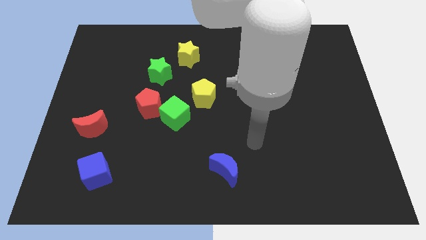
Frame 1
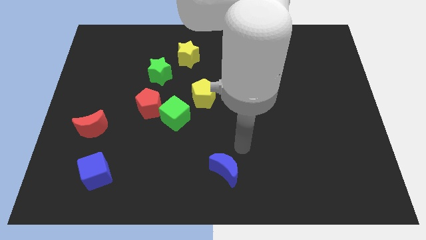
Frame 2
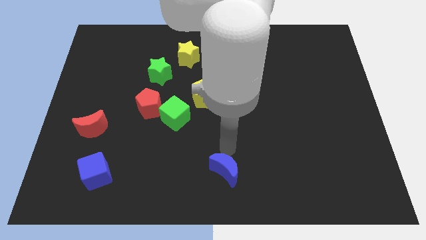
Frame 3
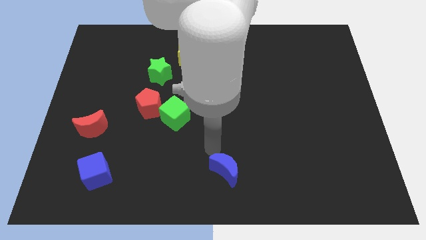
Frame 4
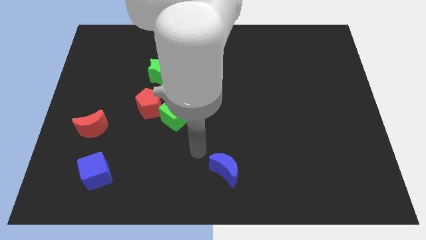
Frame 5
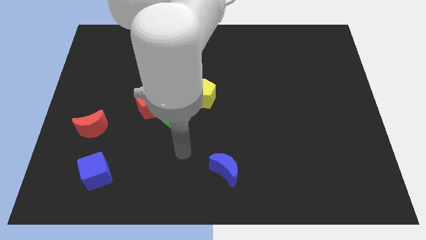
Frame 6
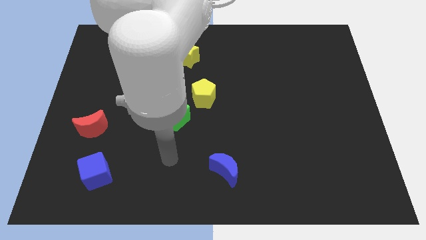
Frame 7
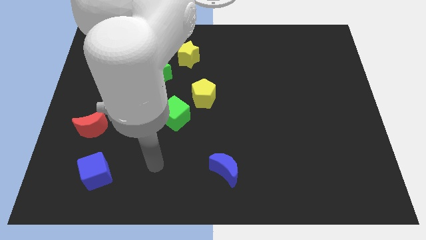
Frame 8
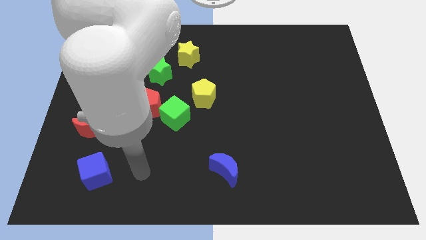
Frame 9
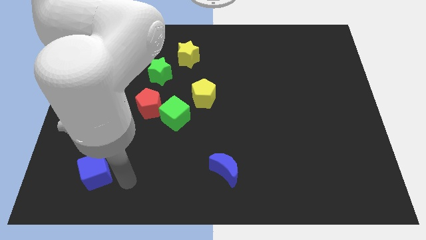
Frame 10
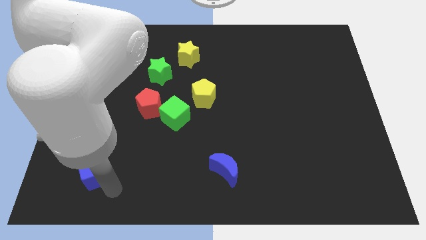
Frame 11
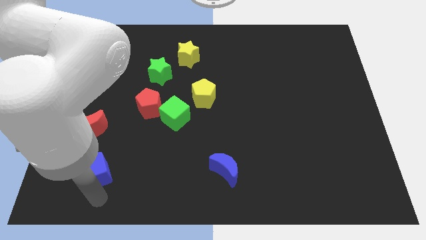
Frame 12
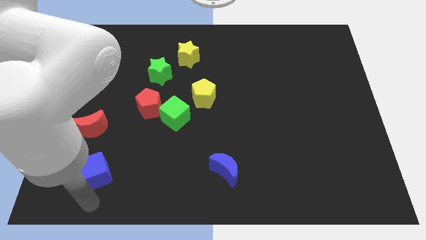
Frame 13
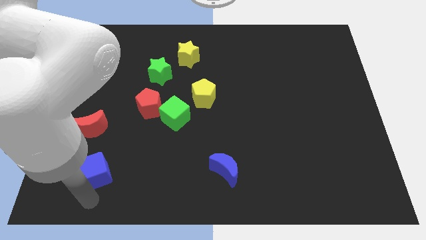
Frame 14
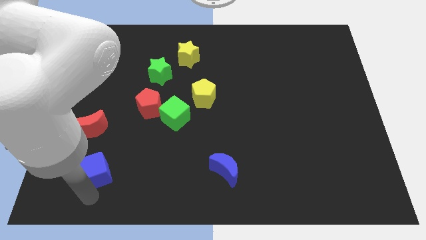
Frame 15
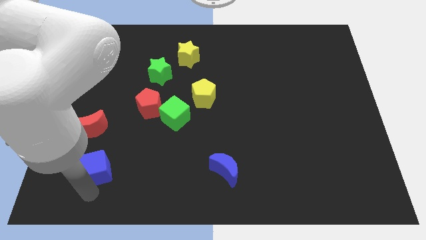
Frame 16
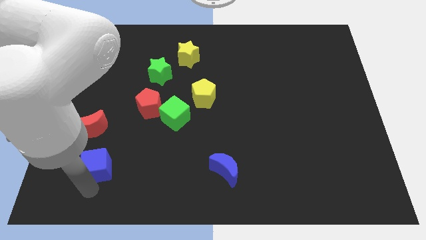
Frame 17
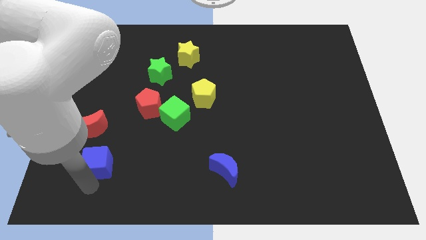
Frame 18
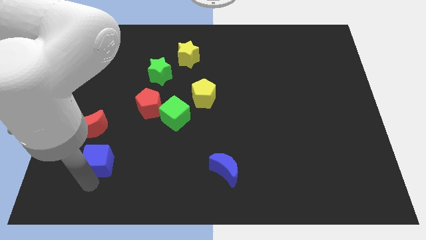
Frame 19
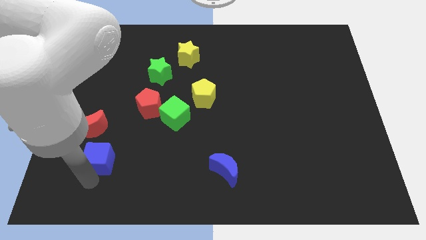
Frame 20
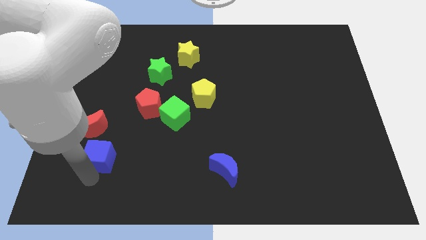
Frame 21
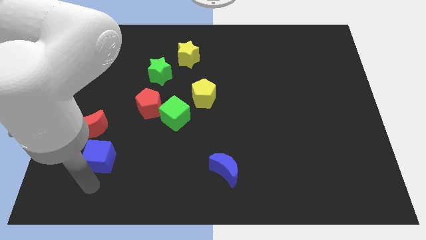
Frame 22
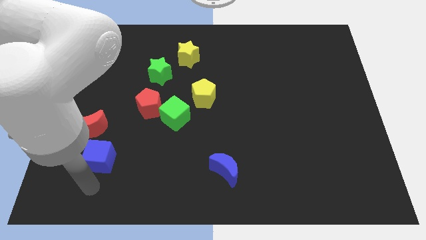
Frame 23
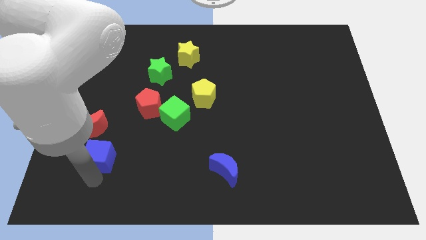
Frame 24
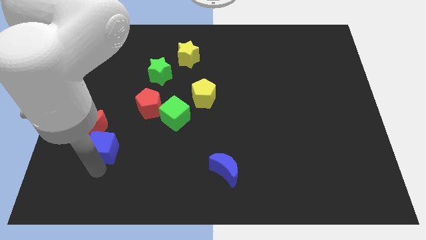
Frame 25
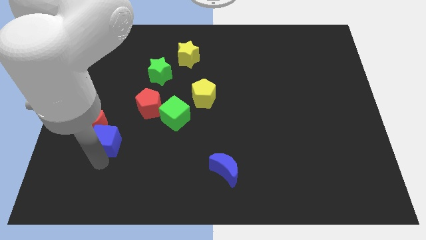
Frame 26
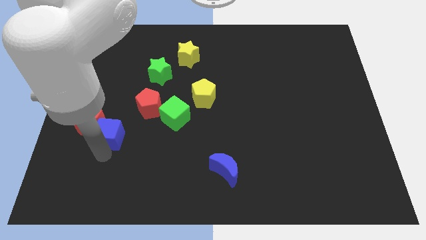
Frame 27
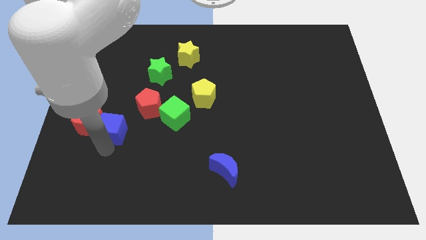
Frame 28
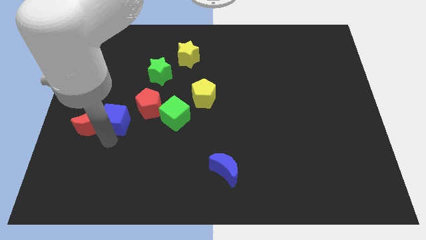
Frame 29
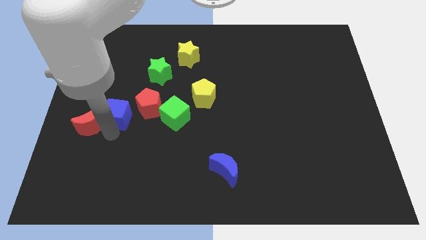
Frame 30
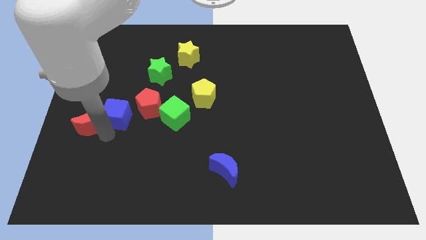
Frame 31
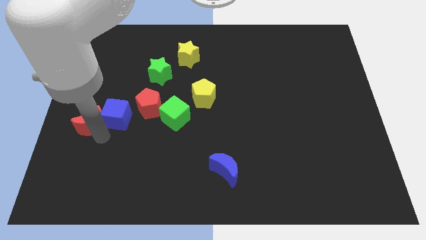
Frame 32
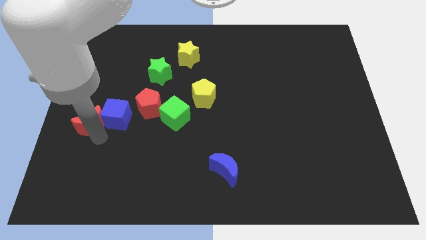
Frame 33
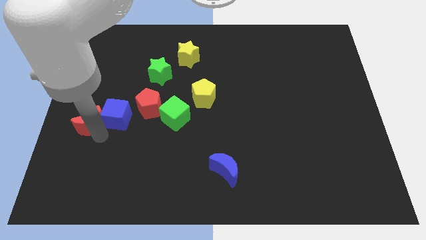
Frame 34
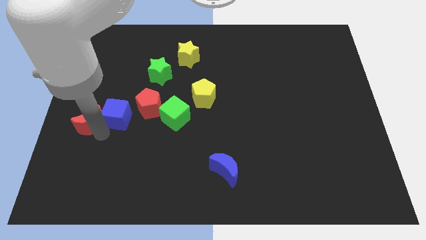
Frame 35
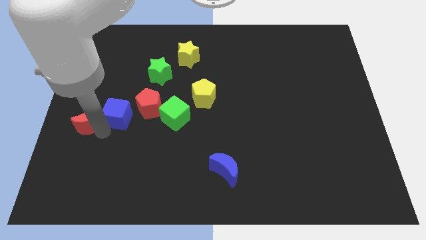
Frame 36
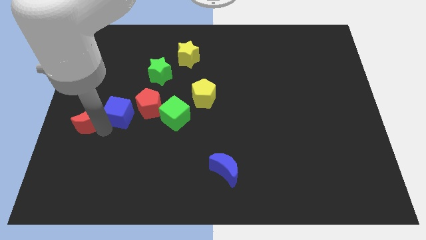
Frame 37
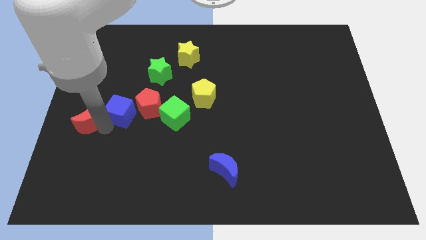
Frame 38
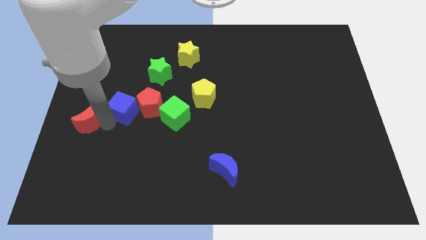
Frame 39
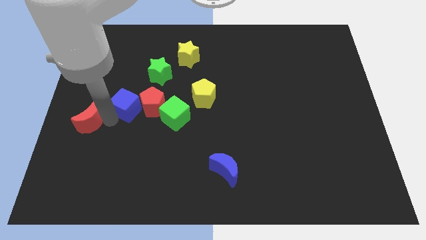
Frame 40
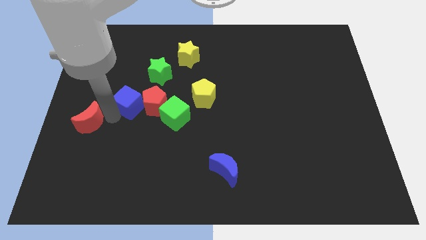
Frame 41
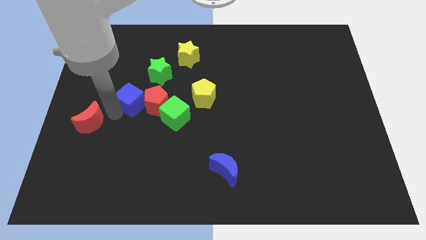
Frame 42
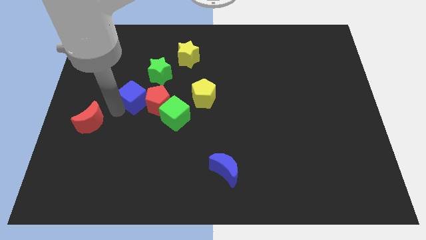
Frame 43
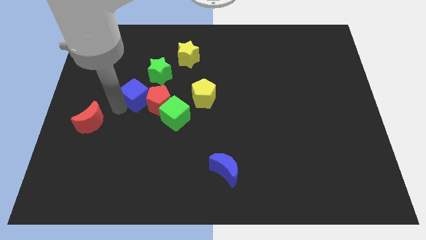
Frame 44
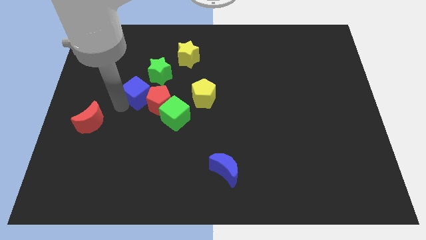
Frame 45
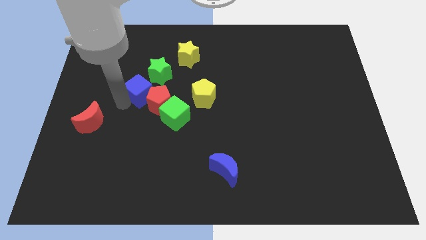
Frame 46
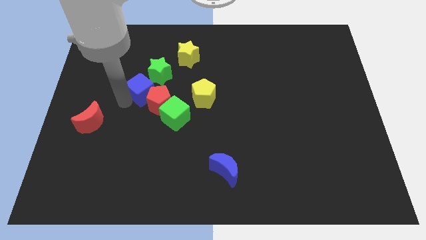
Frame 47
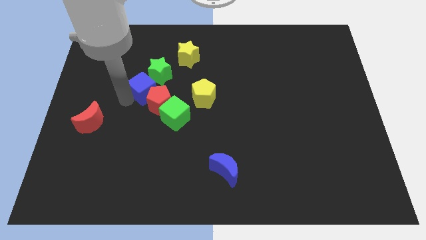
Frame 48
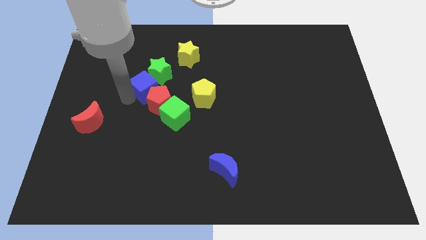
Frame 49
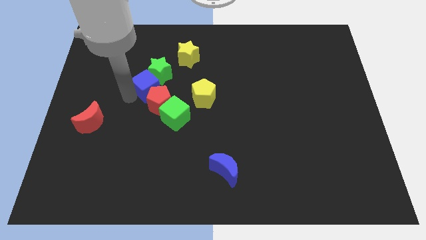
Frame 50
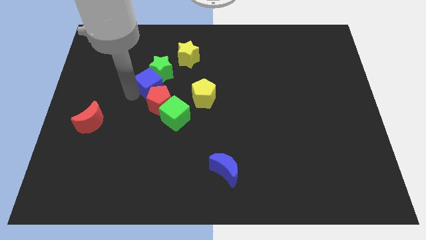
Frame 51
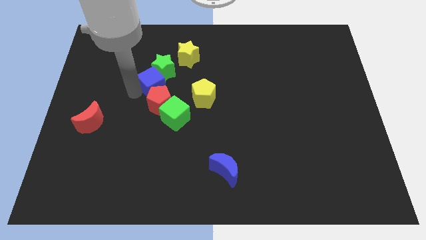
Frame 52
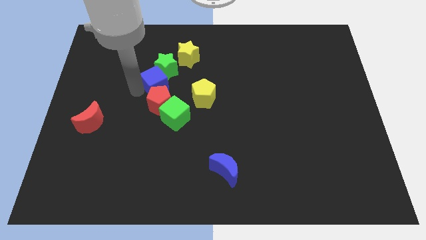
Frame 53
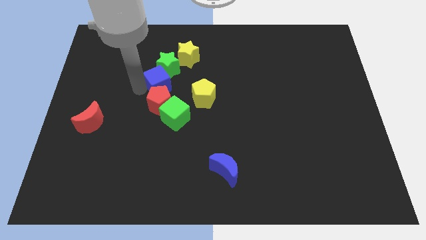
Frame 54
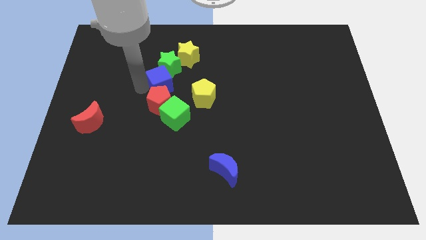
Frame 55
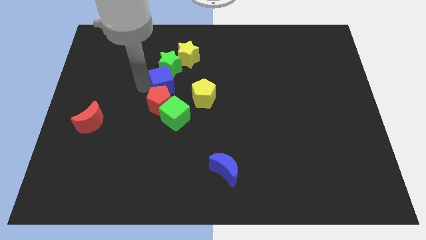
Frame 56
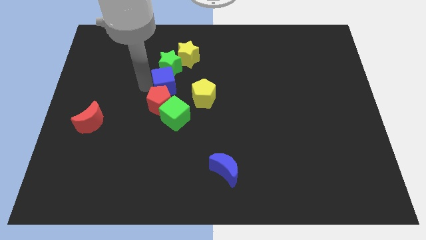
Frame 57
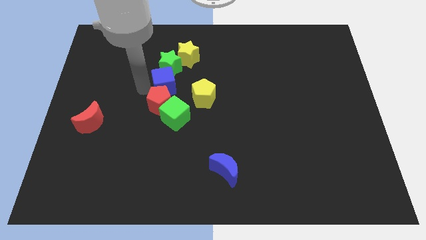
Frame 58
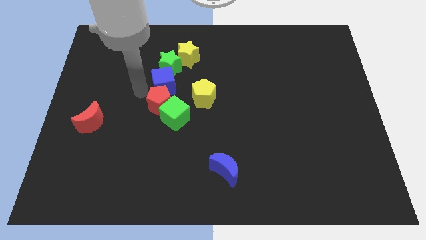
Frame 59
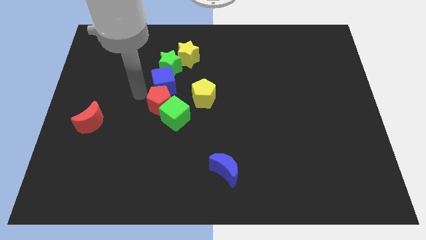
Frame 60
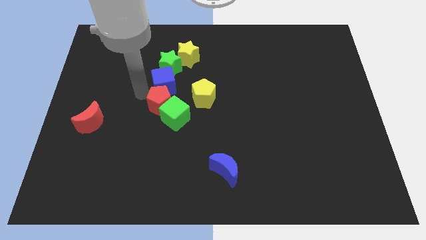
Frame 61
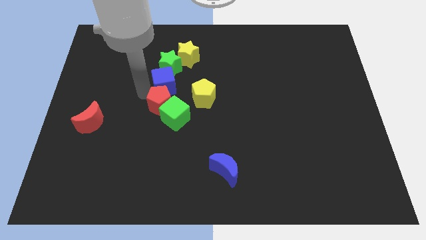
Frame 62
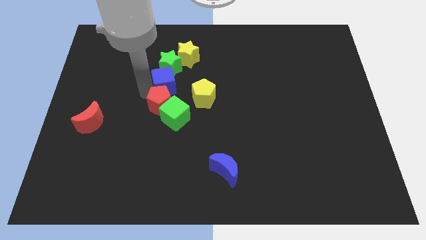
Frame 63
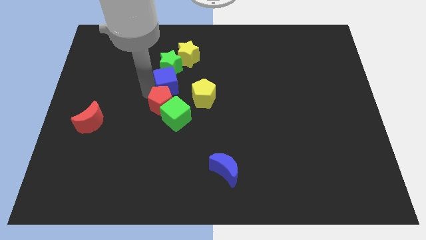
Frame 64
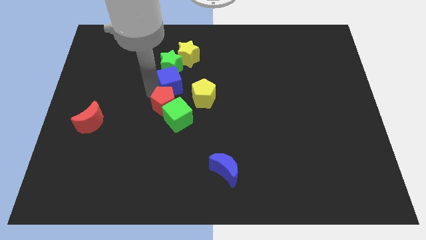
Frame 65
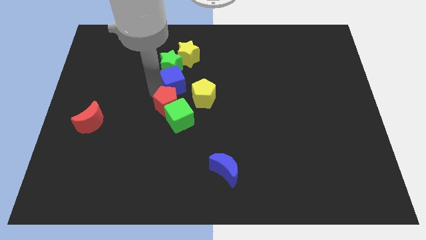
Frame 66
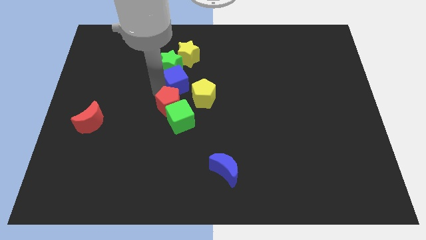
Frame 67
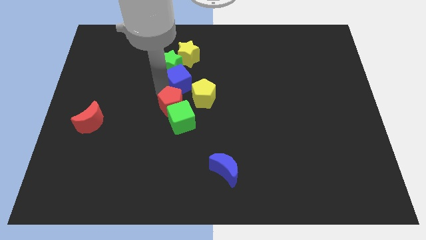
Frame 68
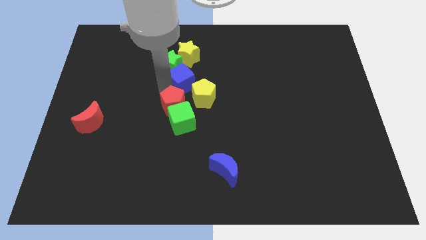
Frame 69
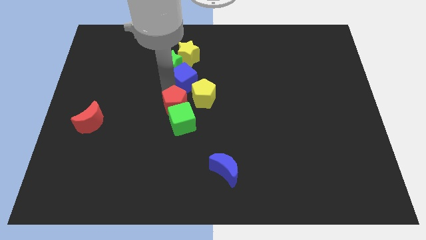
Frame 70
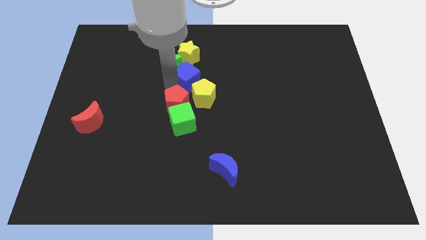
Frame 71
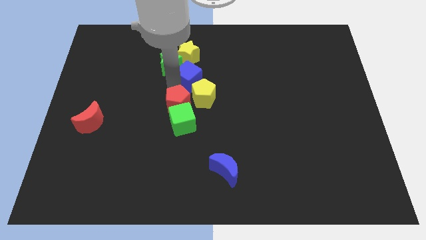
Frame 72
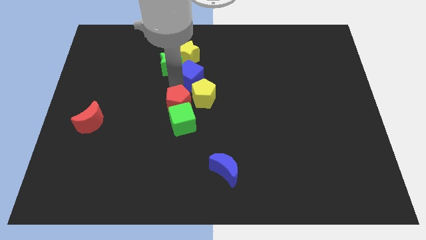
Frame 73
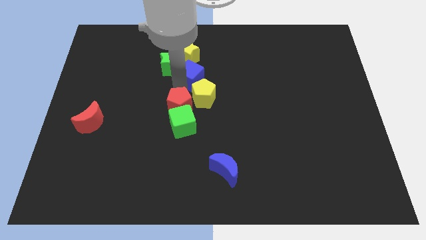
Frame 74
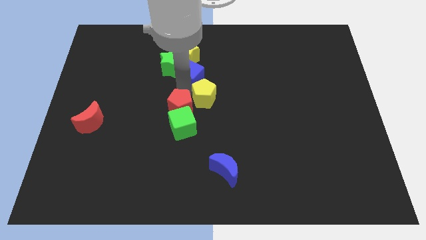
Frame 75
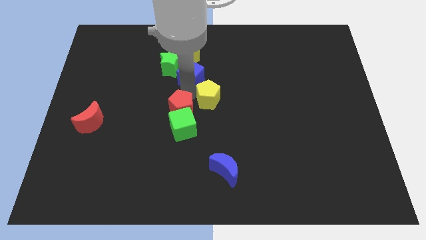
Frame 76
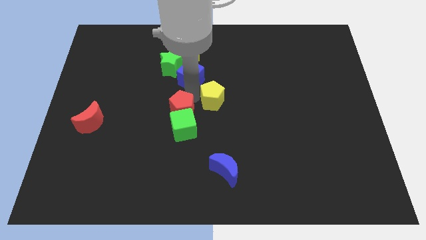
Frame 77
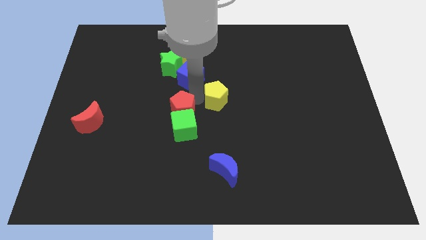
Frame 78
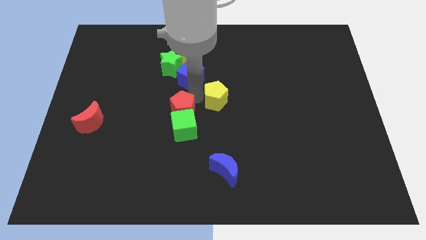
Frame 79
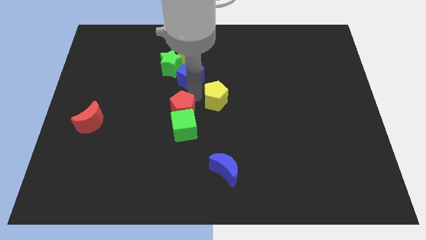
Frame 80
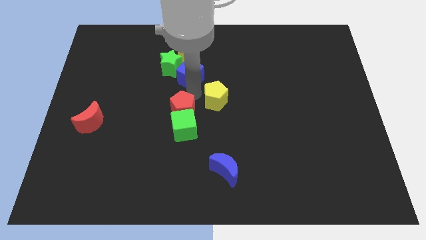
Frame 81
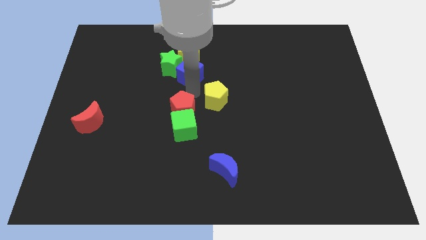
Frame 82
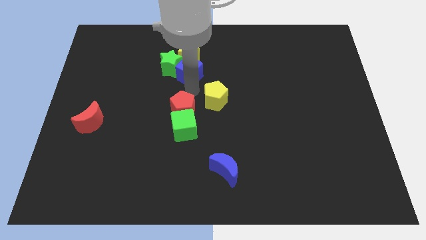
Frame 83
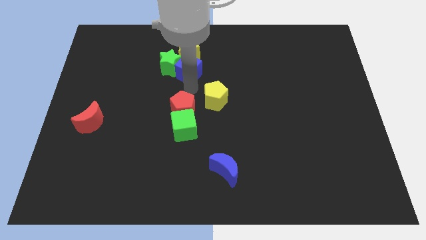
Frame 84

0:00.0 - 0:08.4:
slide the blue cube close to the yellow star
